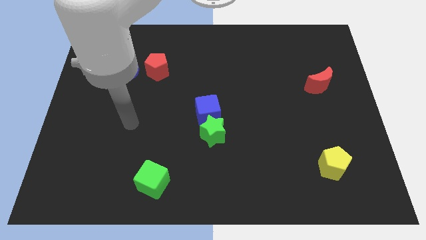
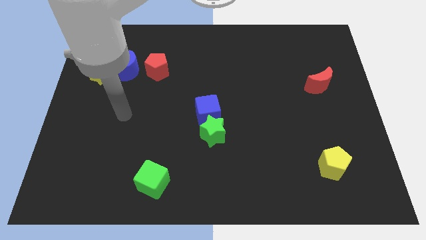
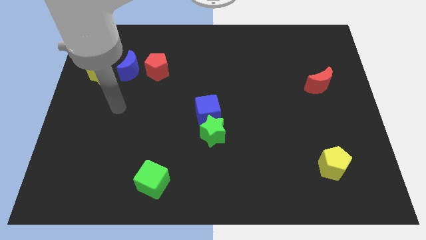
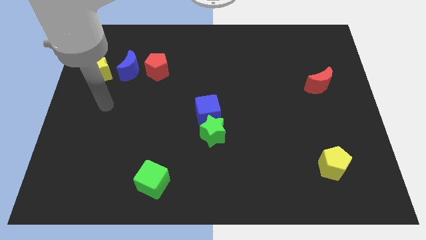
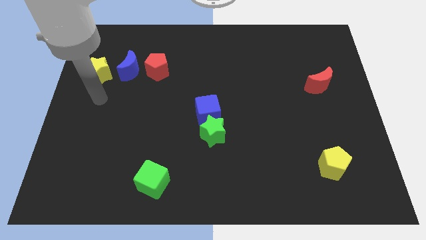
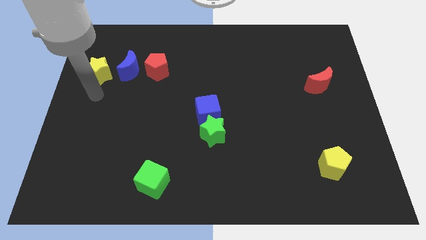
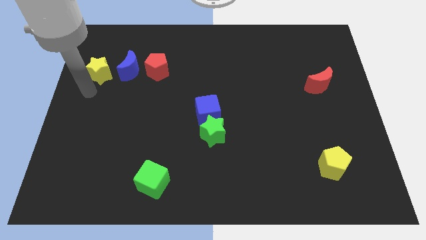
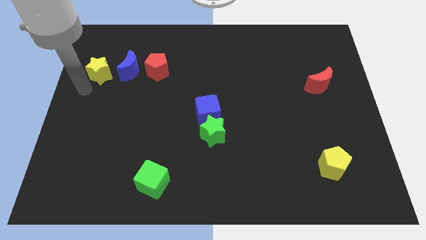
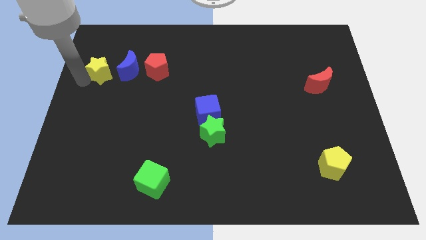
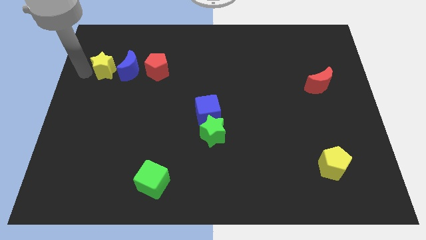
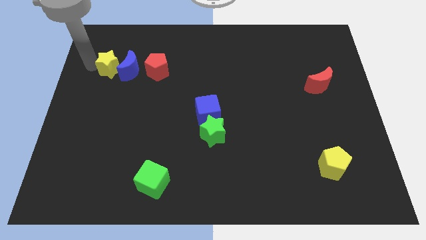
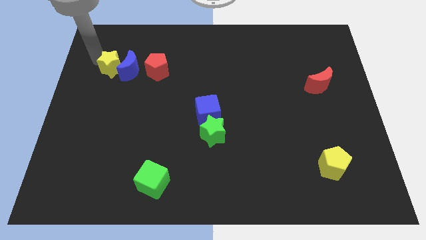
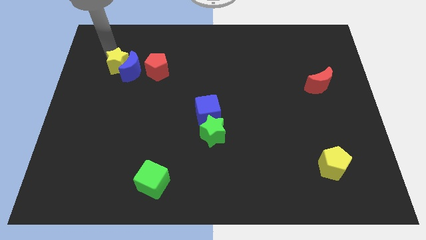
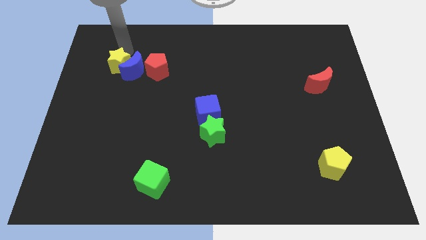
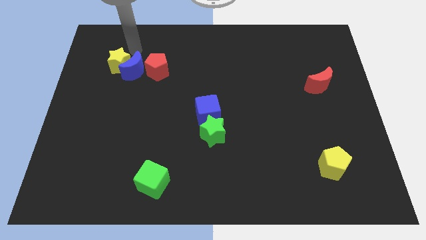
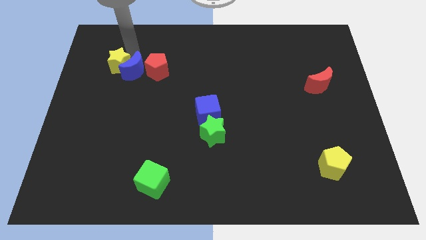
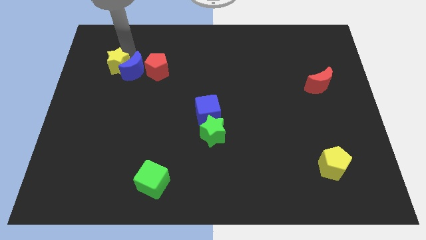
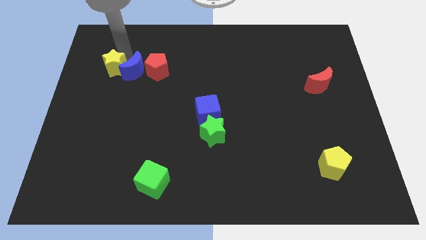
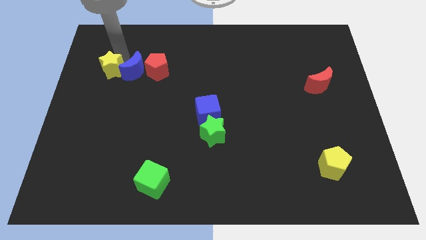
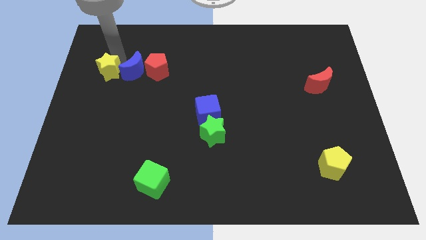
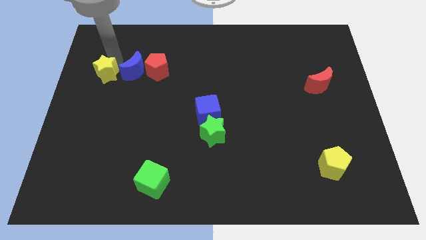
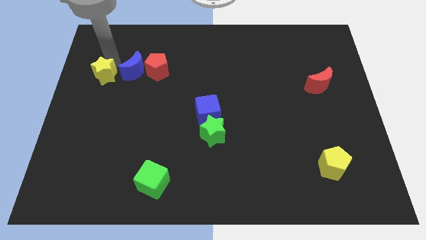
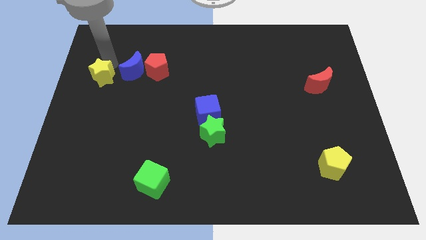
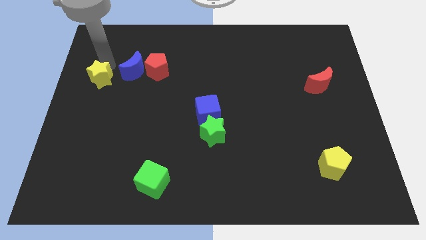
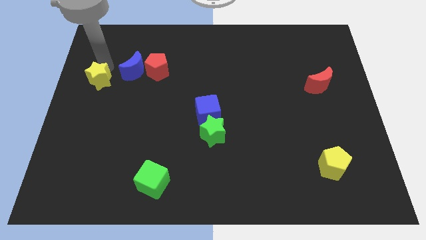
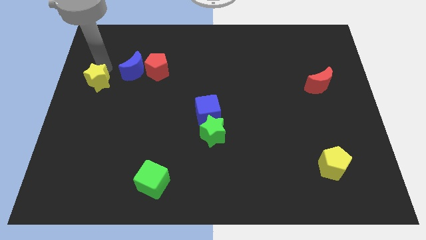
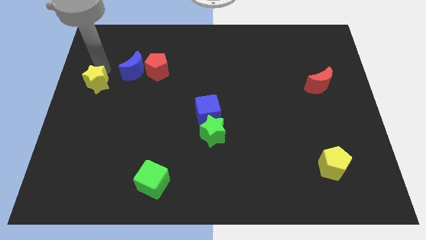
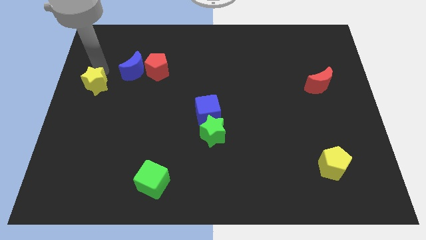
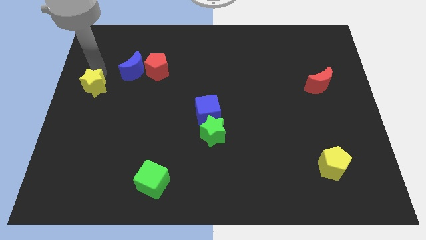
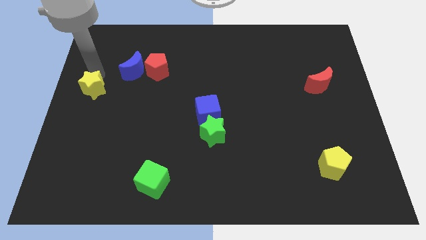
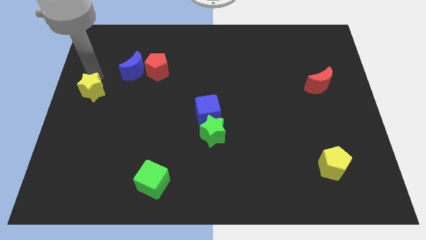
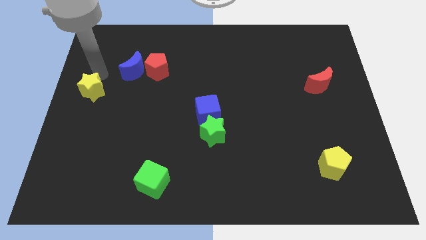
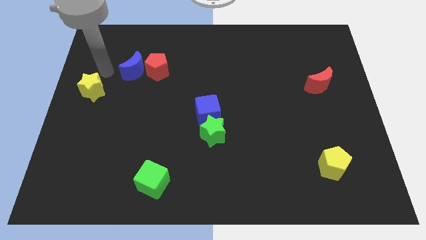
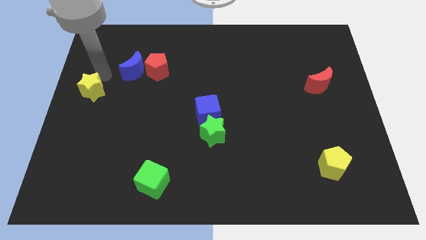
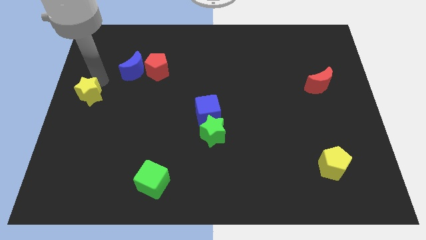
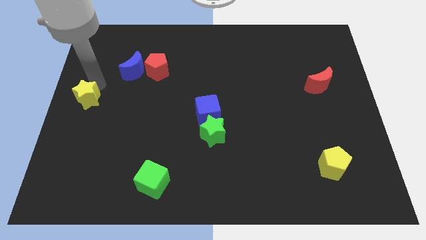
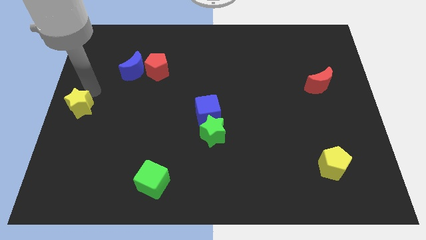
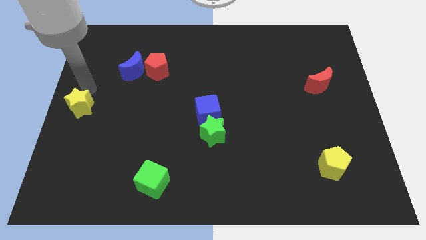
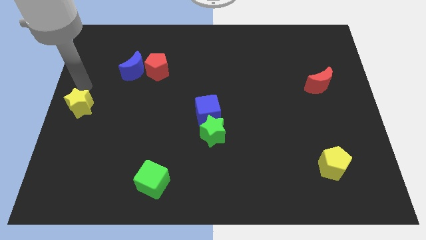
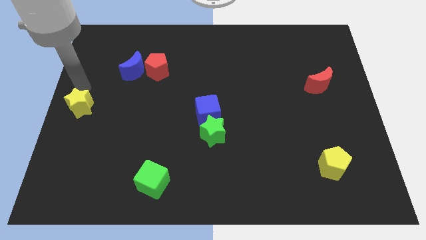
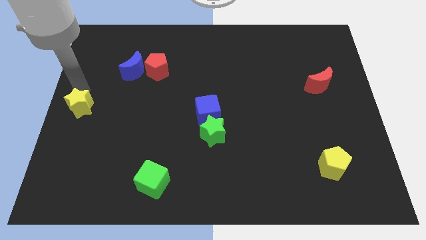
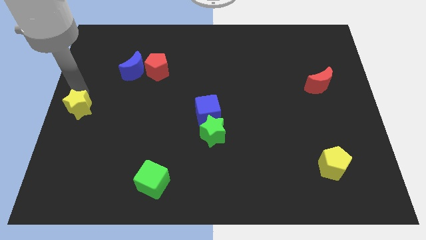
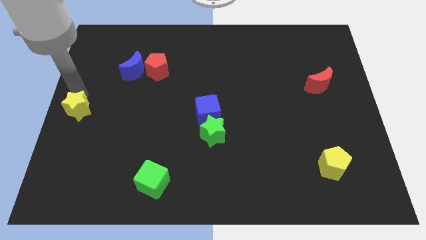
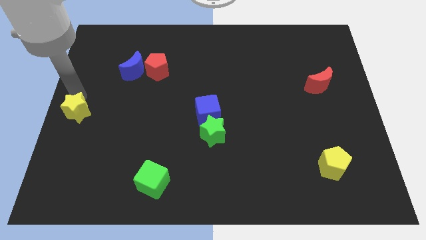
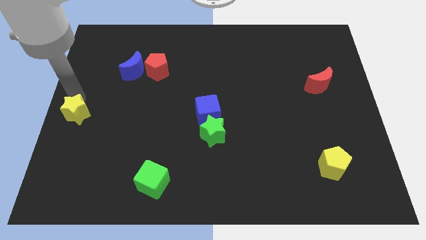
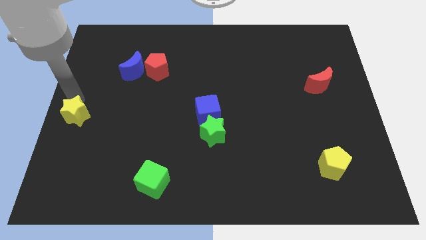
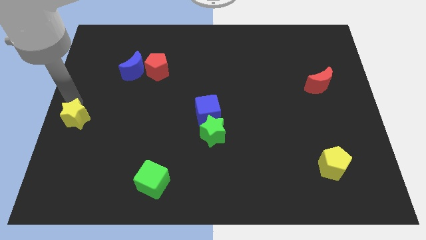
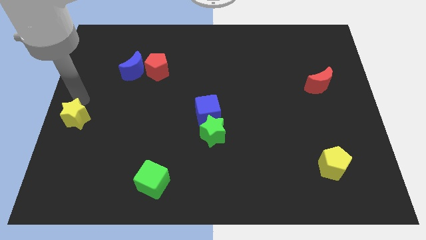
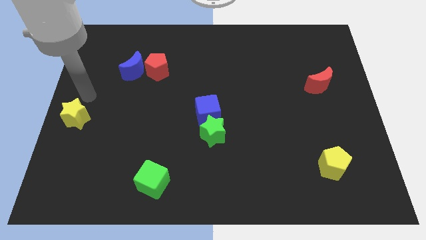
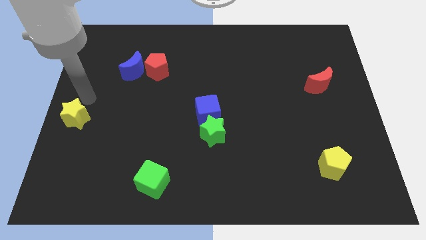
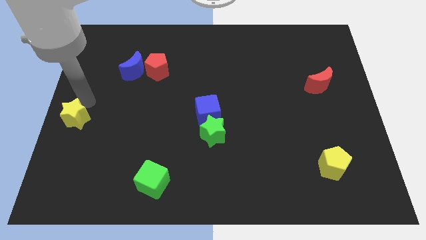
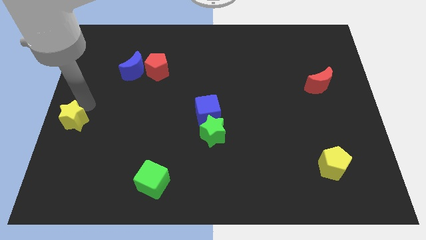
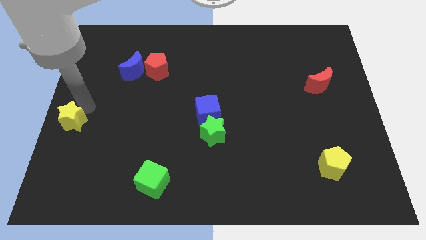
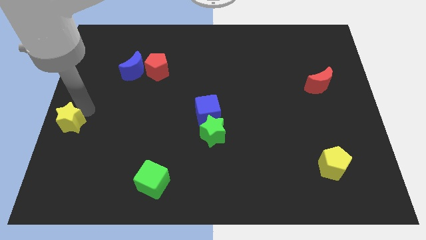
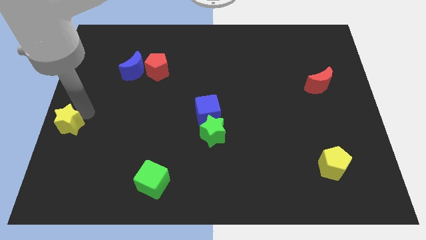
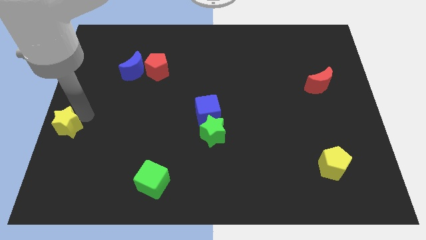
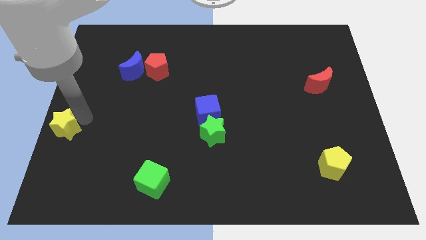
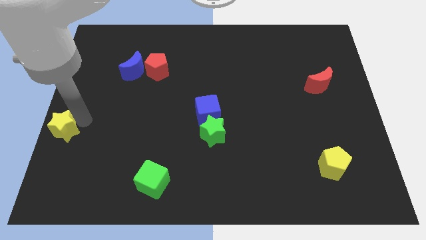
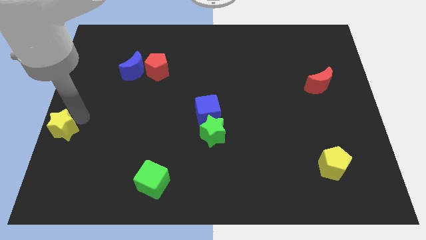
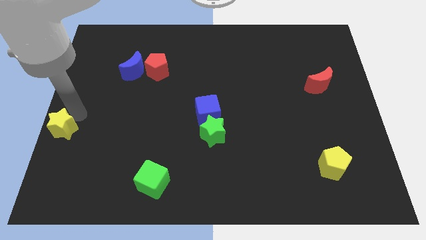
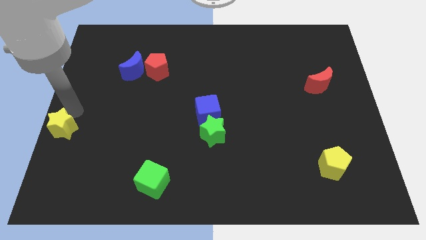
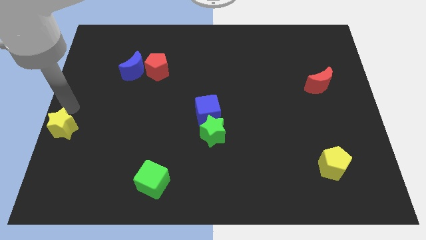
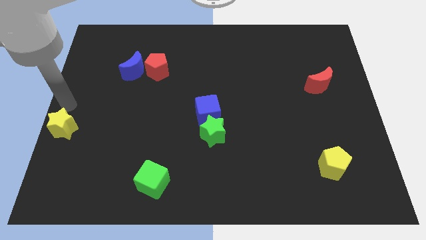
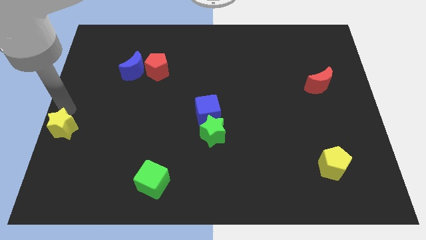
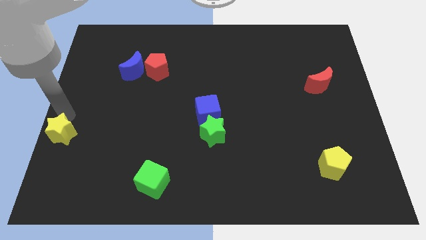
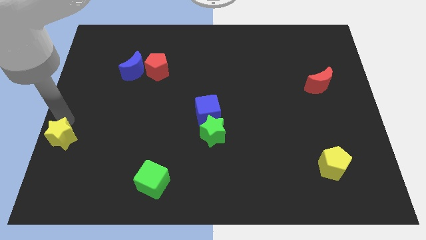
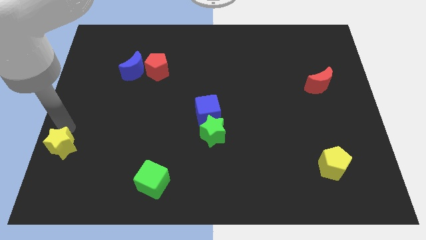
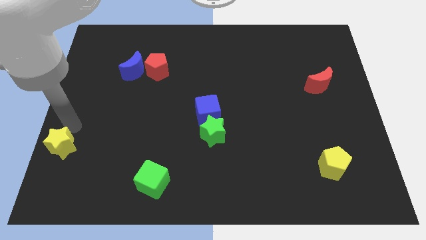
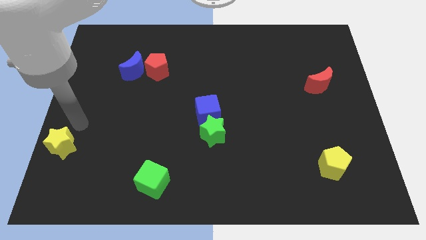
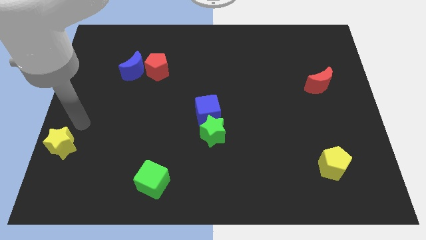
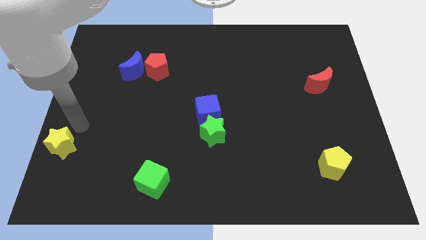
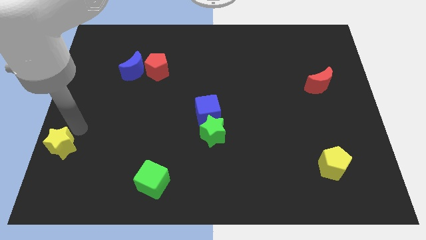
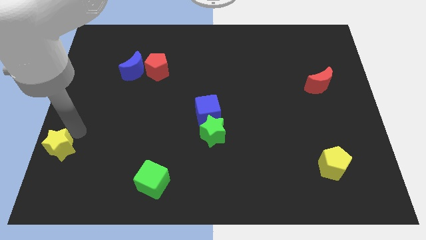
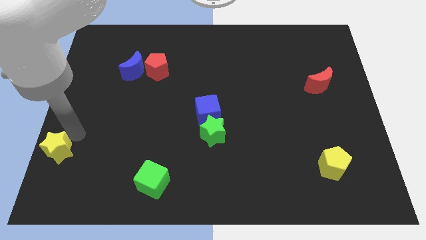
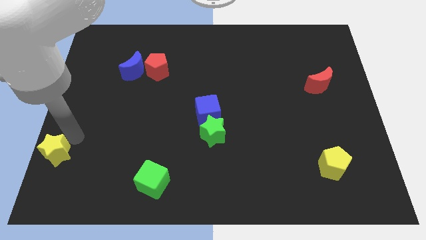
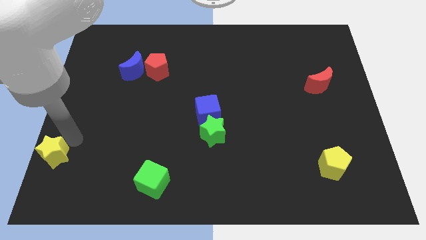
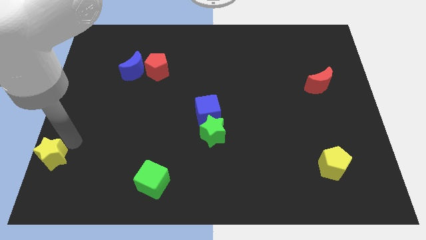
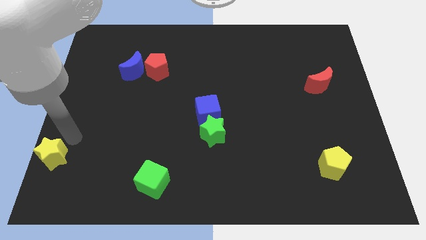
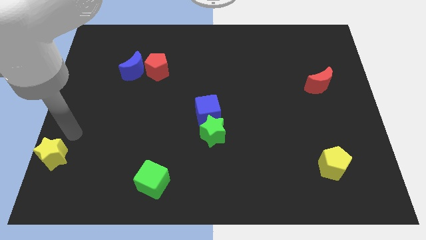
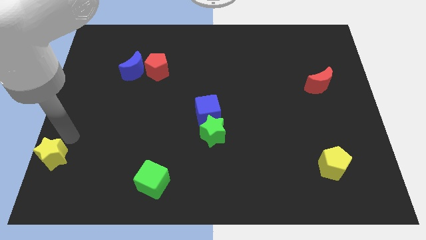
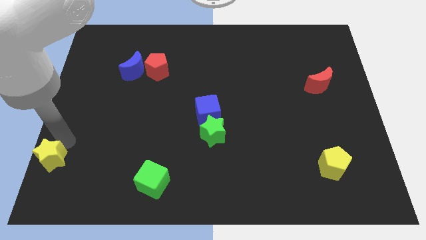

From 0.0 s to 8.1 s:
move the yellow star to the bottom left corner
